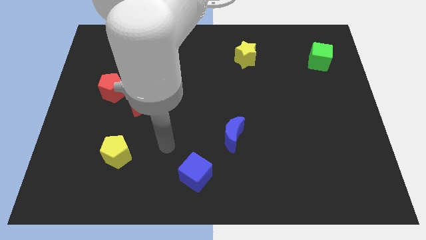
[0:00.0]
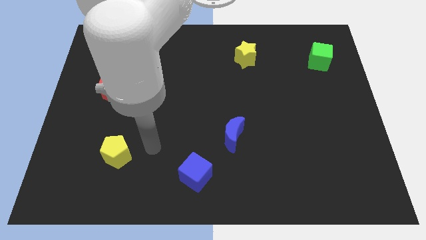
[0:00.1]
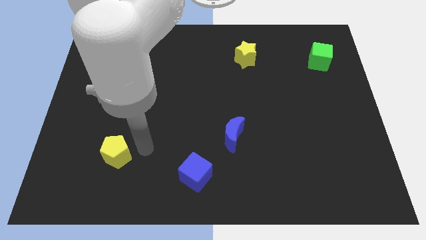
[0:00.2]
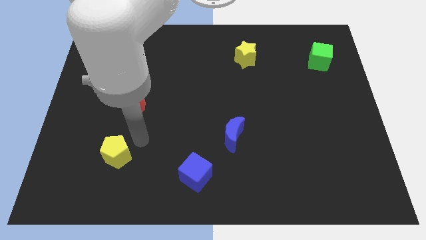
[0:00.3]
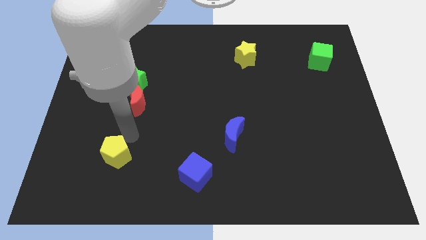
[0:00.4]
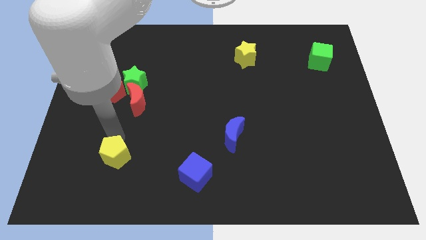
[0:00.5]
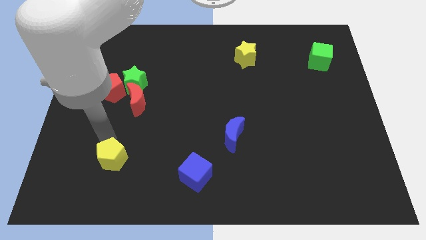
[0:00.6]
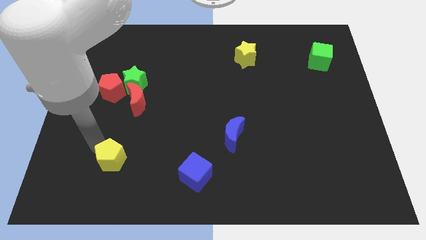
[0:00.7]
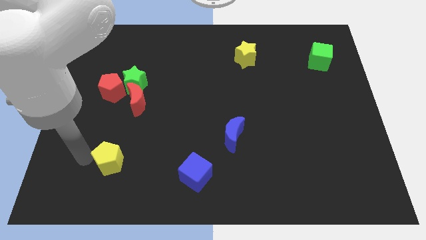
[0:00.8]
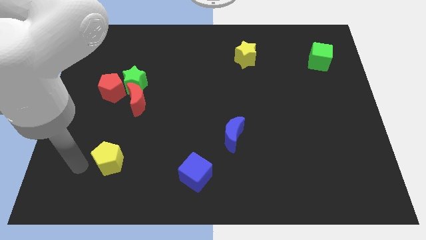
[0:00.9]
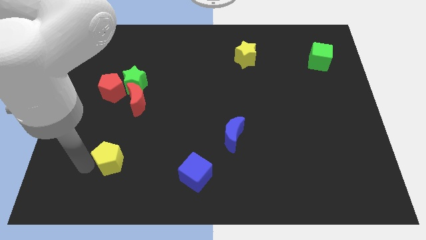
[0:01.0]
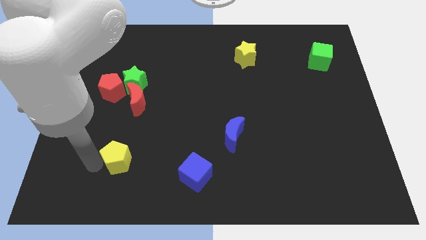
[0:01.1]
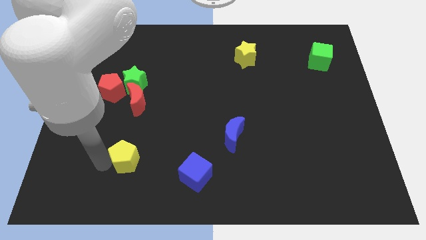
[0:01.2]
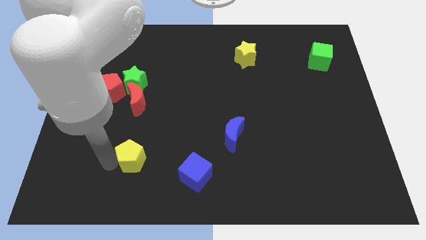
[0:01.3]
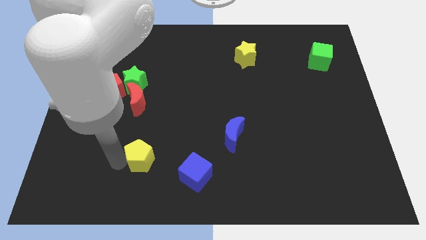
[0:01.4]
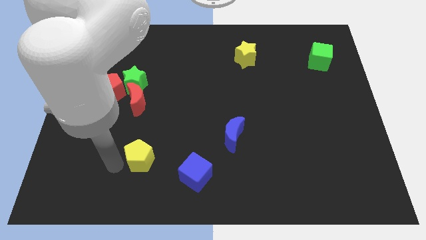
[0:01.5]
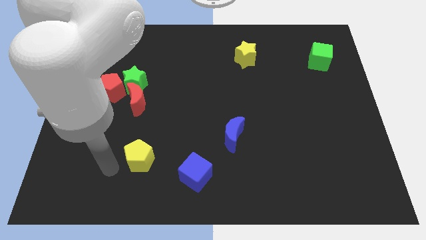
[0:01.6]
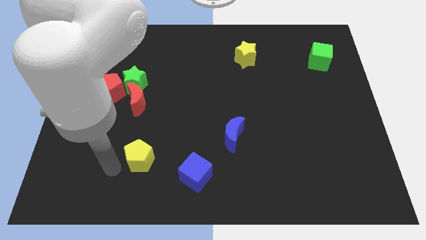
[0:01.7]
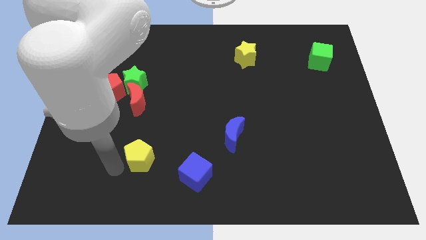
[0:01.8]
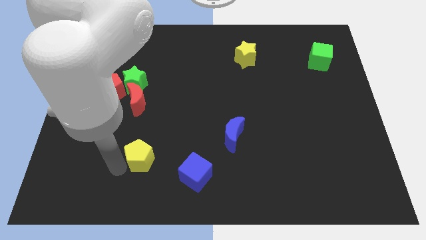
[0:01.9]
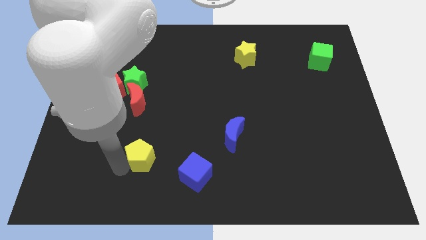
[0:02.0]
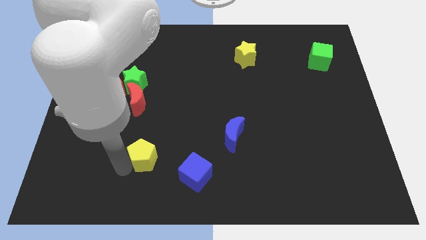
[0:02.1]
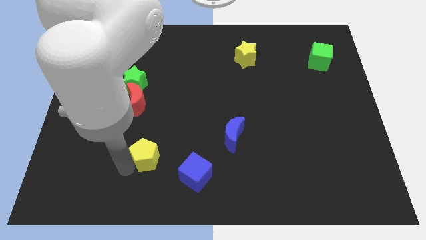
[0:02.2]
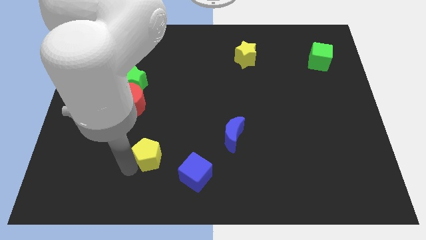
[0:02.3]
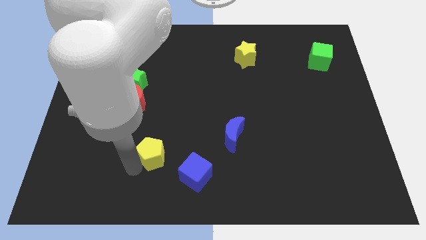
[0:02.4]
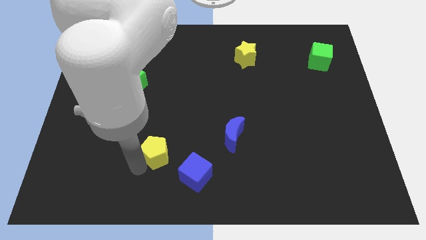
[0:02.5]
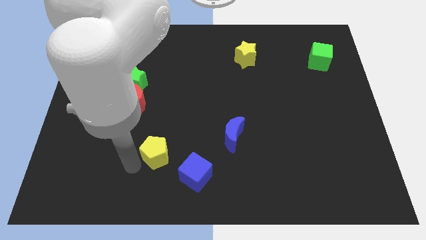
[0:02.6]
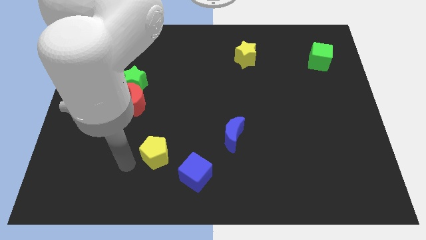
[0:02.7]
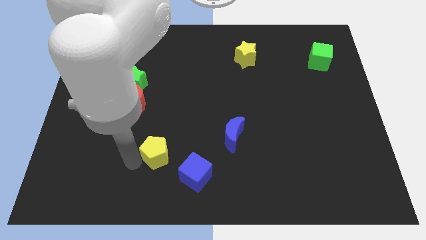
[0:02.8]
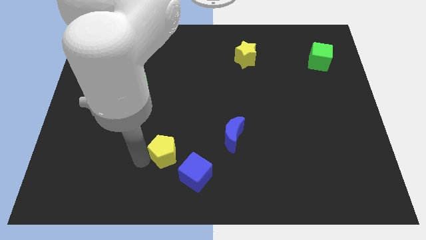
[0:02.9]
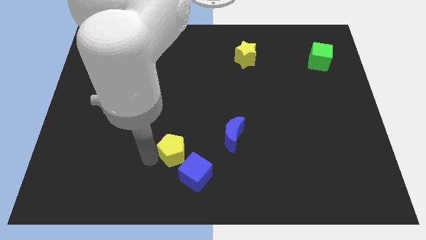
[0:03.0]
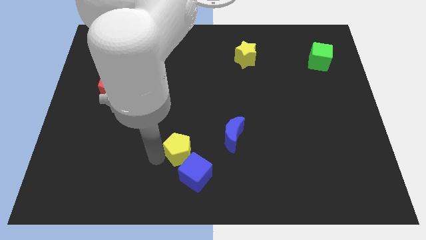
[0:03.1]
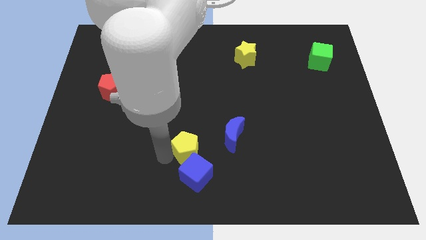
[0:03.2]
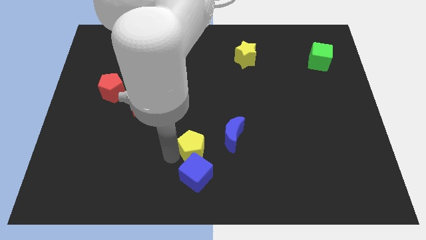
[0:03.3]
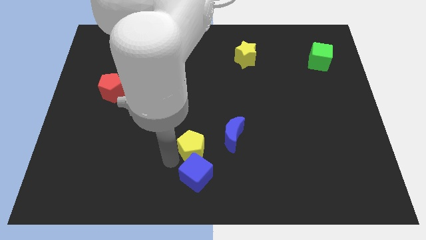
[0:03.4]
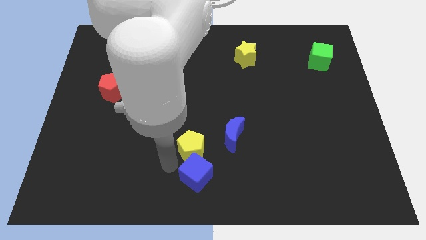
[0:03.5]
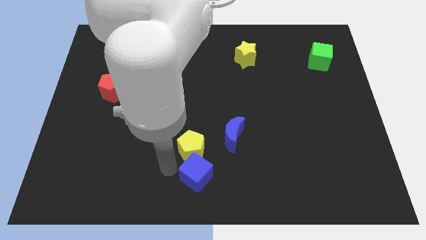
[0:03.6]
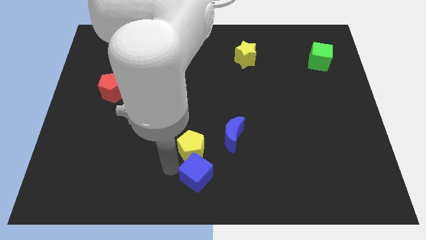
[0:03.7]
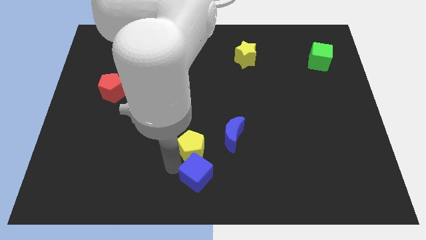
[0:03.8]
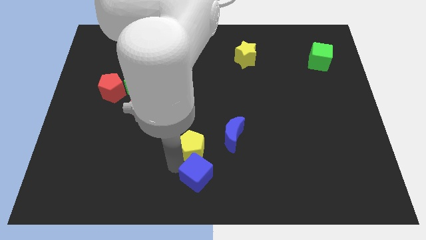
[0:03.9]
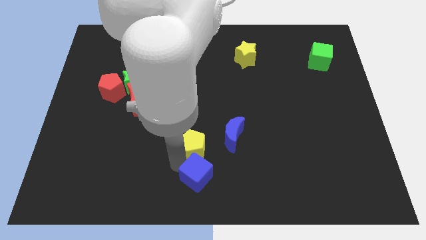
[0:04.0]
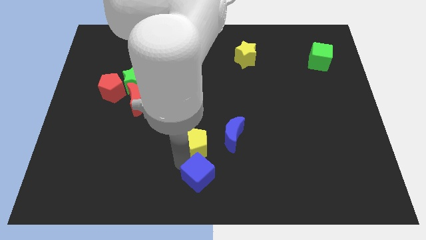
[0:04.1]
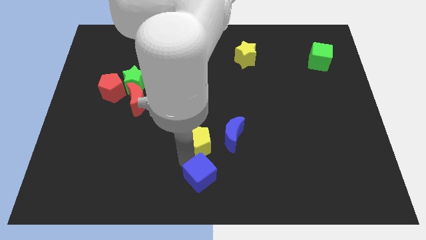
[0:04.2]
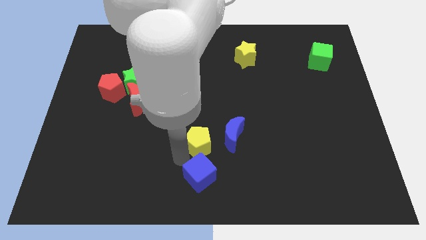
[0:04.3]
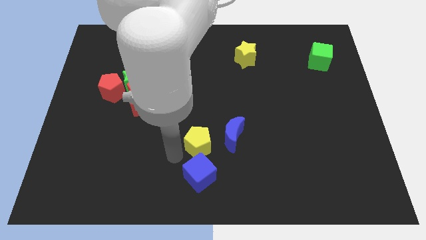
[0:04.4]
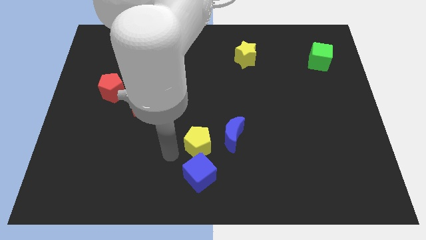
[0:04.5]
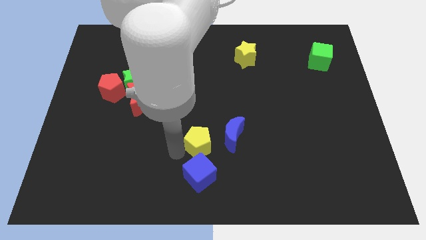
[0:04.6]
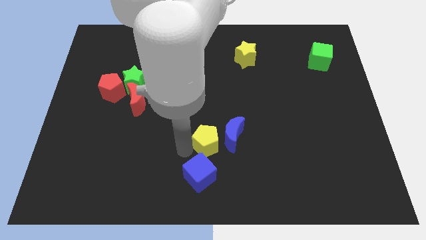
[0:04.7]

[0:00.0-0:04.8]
push the yellow pentagon towards the blue moon

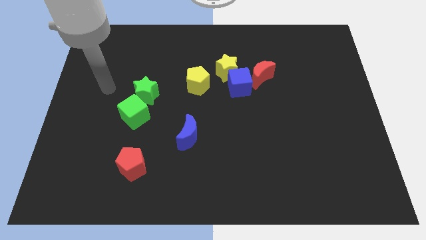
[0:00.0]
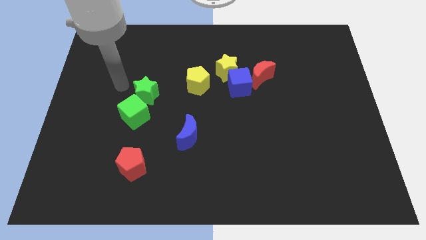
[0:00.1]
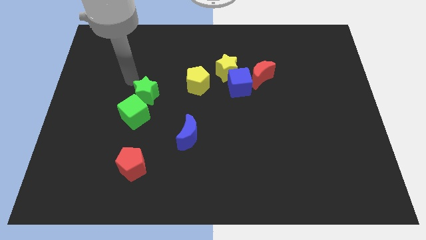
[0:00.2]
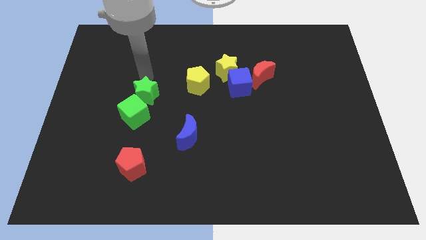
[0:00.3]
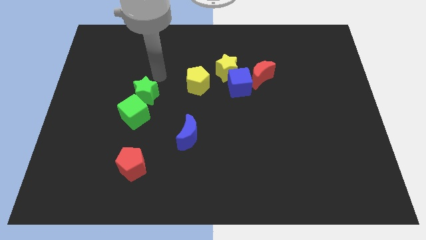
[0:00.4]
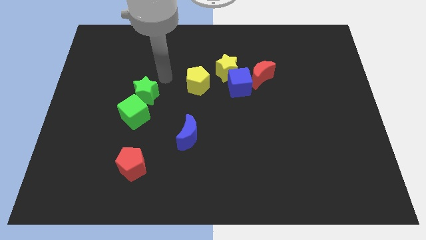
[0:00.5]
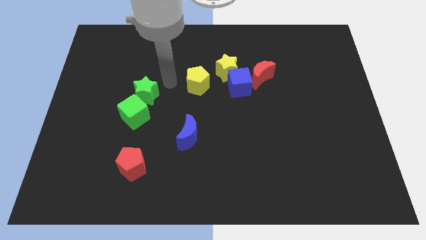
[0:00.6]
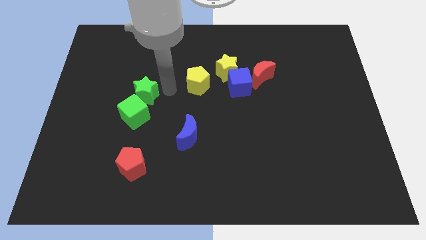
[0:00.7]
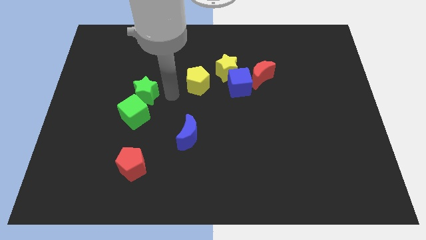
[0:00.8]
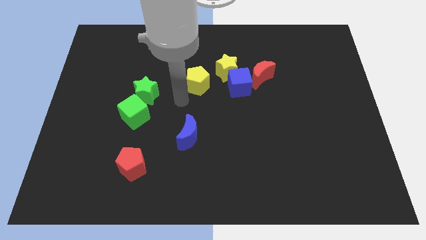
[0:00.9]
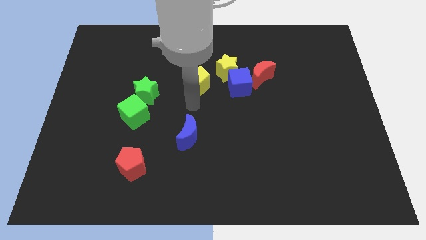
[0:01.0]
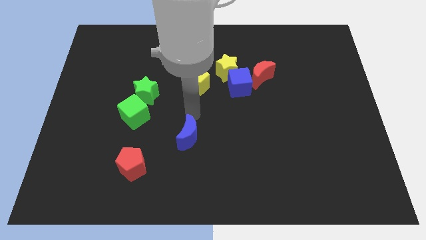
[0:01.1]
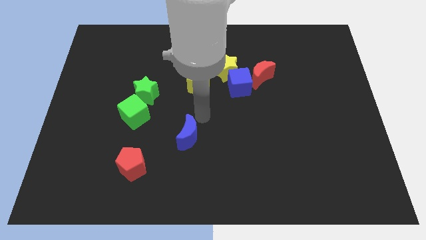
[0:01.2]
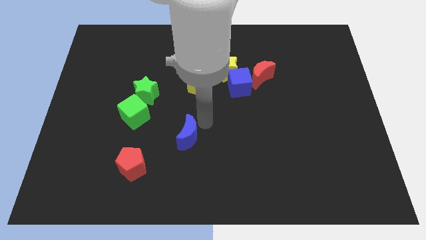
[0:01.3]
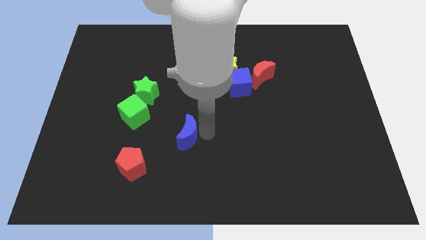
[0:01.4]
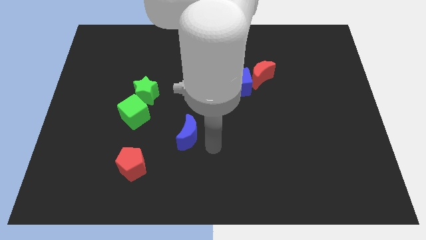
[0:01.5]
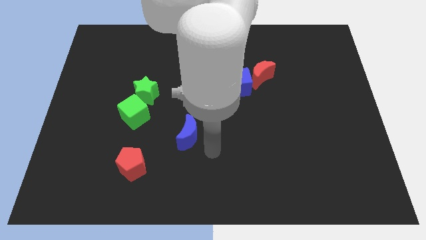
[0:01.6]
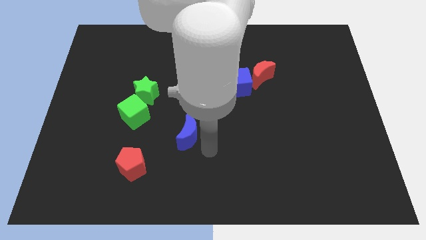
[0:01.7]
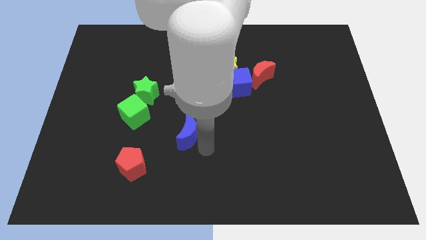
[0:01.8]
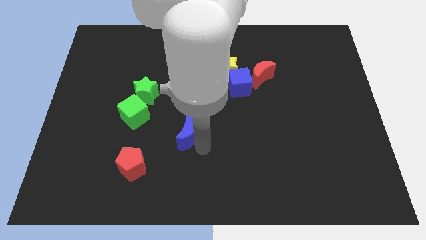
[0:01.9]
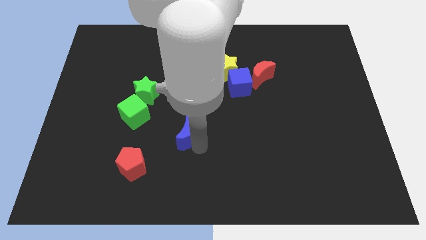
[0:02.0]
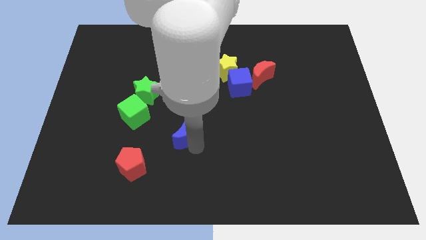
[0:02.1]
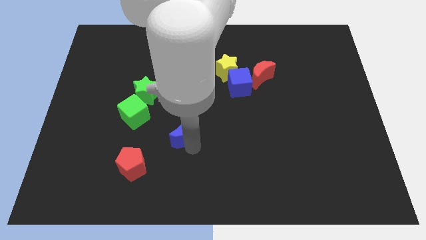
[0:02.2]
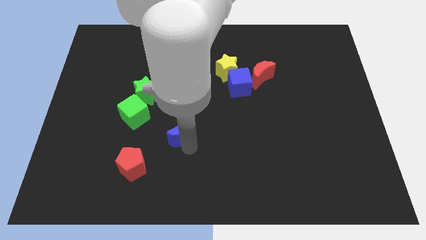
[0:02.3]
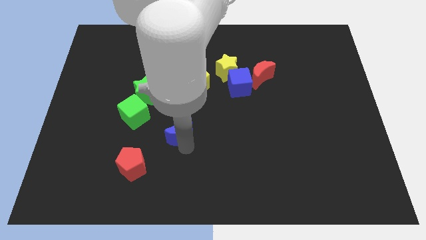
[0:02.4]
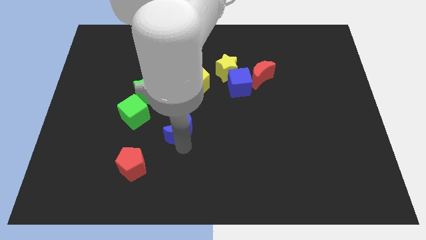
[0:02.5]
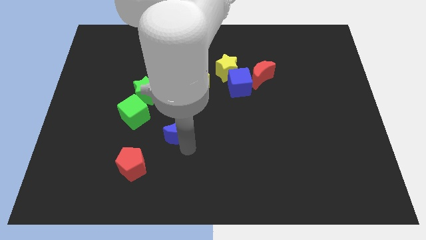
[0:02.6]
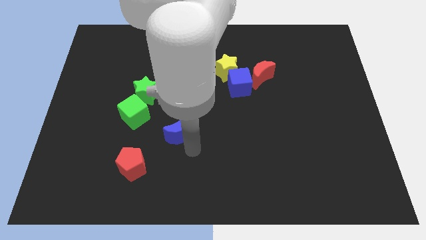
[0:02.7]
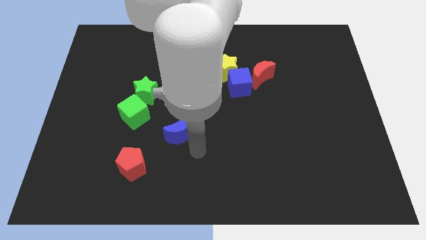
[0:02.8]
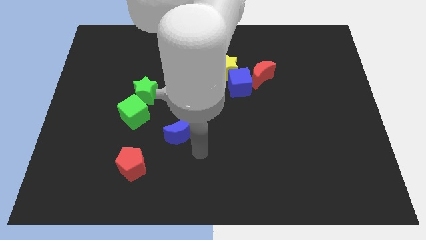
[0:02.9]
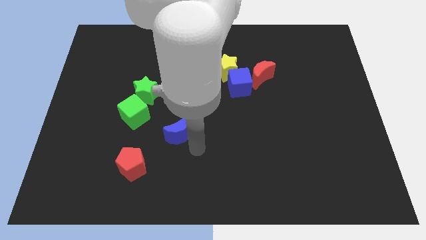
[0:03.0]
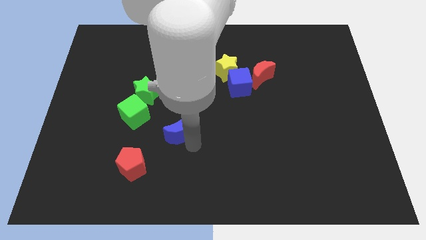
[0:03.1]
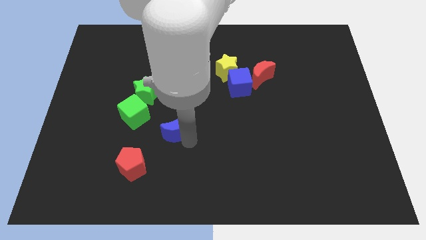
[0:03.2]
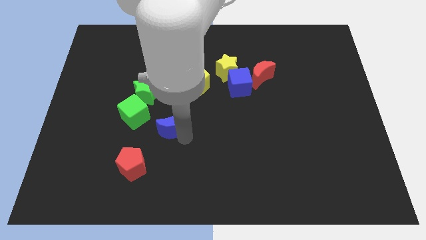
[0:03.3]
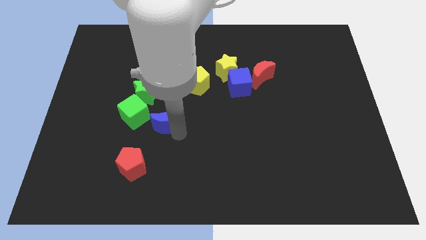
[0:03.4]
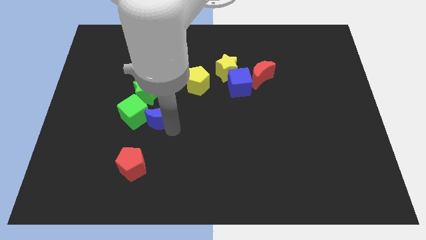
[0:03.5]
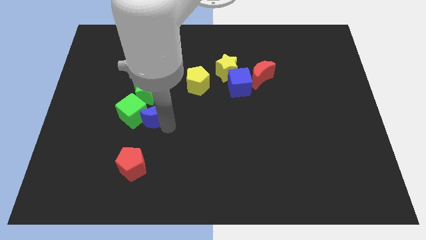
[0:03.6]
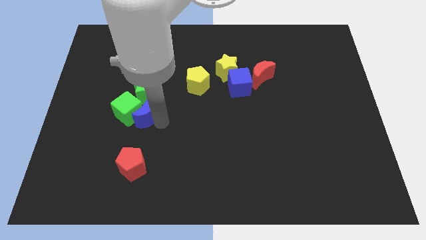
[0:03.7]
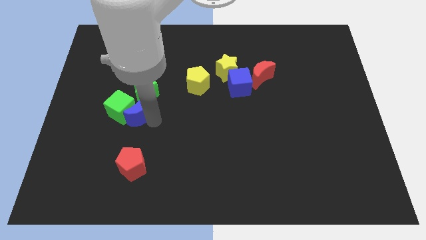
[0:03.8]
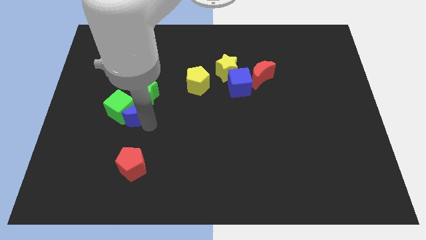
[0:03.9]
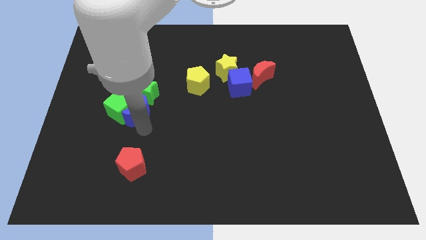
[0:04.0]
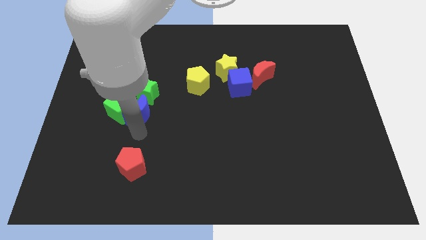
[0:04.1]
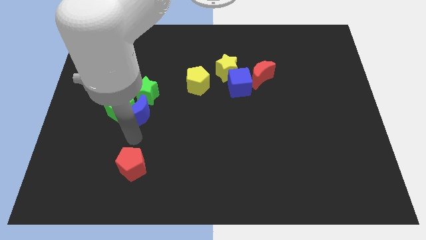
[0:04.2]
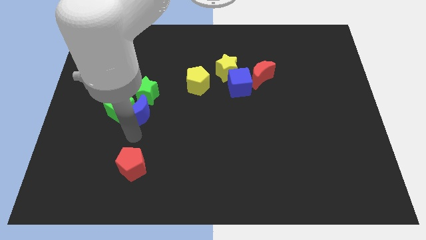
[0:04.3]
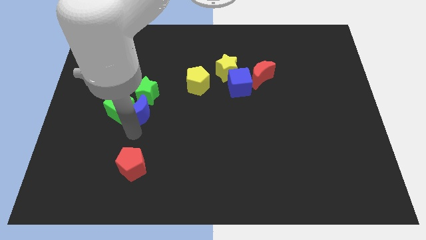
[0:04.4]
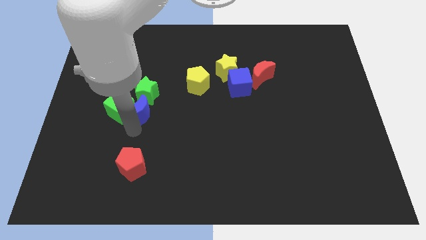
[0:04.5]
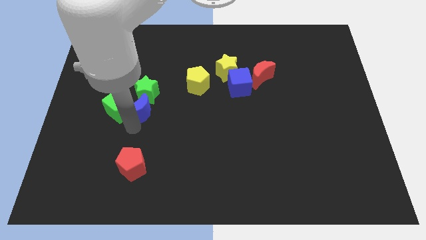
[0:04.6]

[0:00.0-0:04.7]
put the blue moon to the green star
